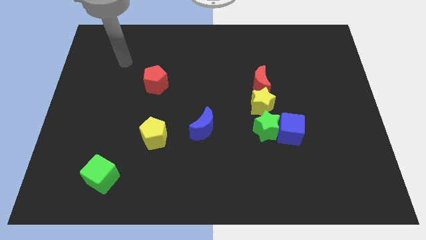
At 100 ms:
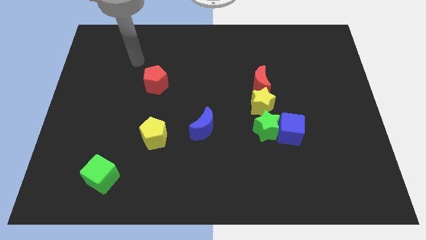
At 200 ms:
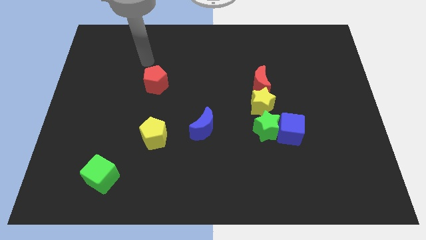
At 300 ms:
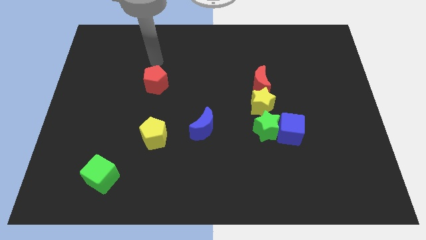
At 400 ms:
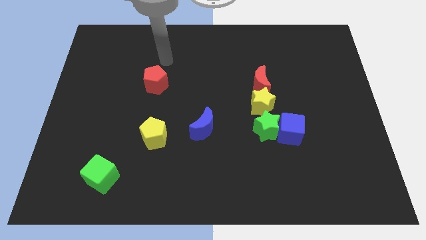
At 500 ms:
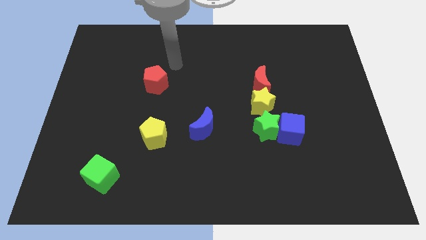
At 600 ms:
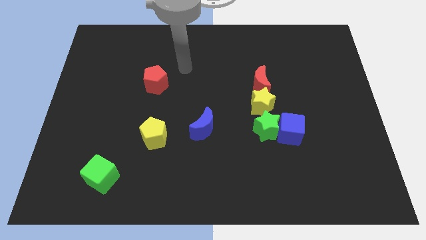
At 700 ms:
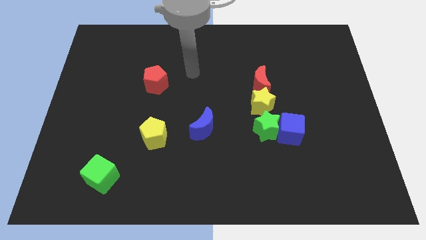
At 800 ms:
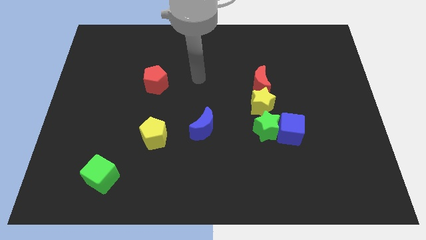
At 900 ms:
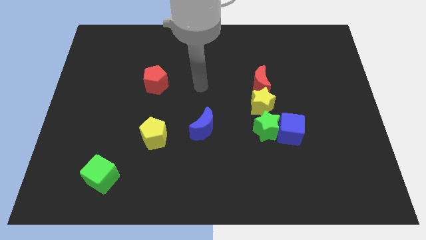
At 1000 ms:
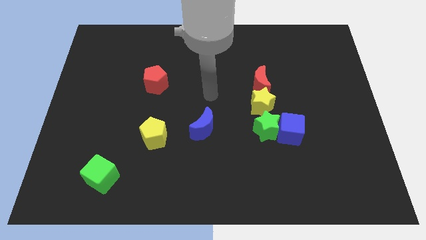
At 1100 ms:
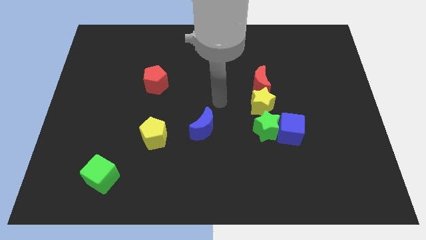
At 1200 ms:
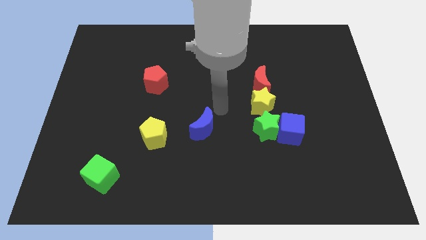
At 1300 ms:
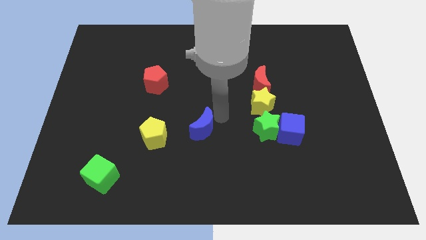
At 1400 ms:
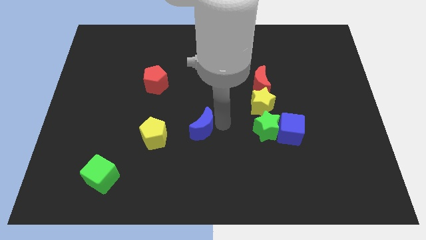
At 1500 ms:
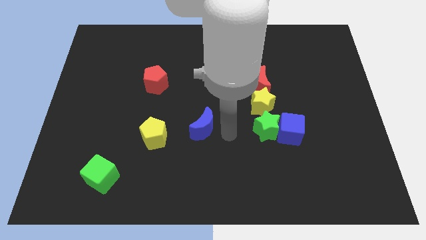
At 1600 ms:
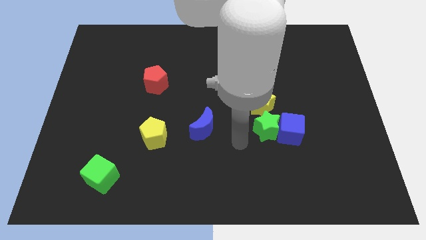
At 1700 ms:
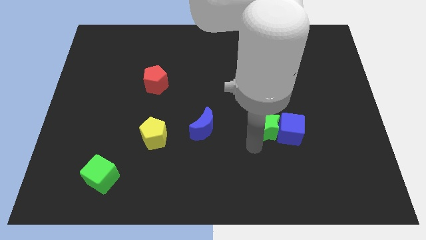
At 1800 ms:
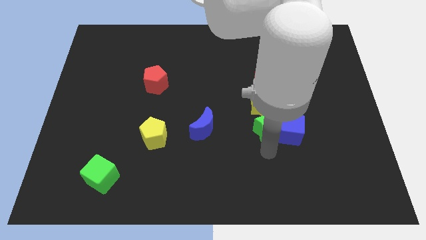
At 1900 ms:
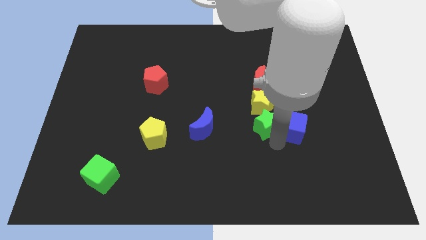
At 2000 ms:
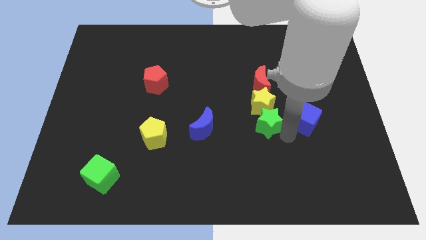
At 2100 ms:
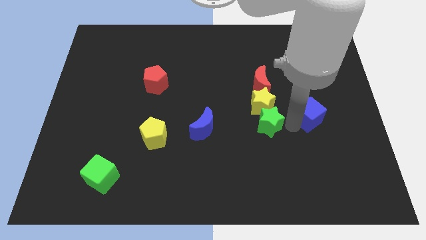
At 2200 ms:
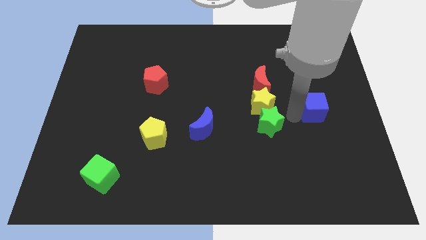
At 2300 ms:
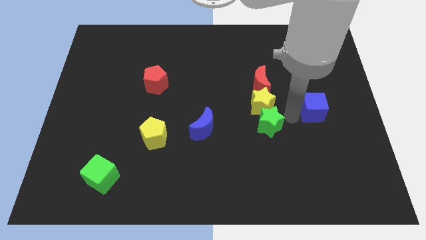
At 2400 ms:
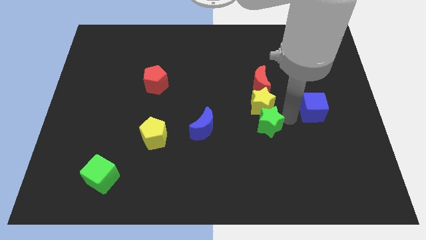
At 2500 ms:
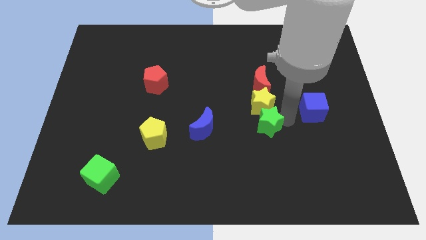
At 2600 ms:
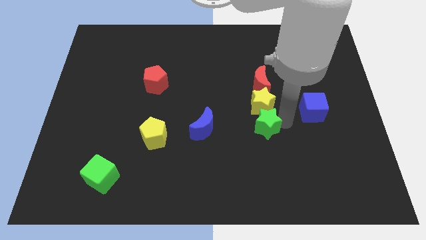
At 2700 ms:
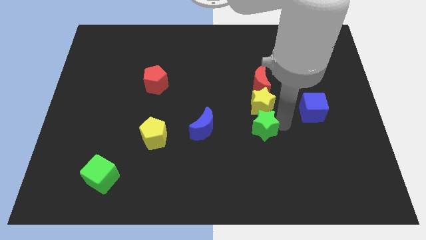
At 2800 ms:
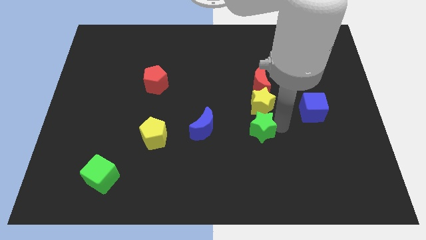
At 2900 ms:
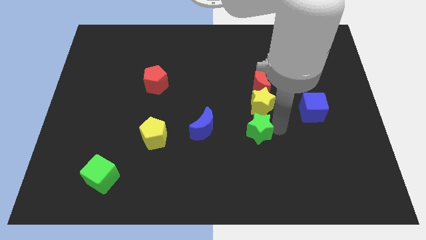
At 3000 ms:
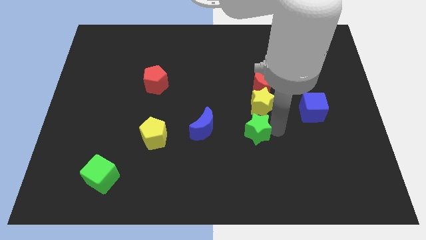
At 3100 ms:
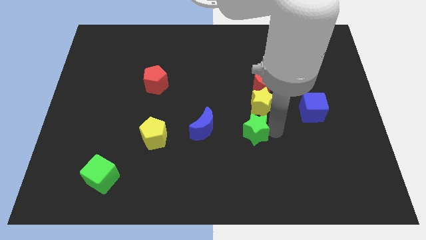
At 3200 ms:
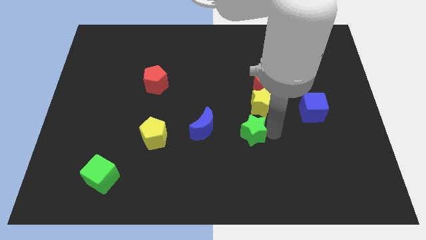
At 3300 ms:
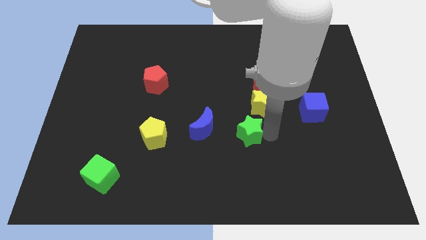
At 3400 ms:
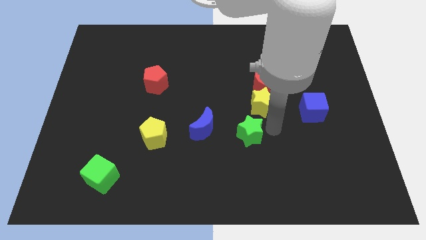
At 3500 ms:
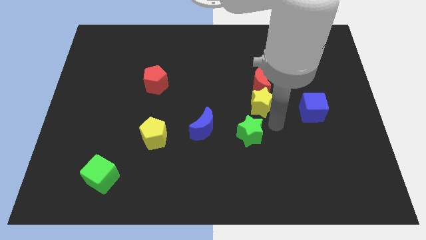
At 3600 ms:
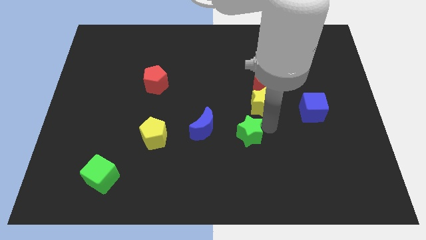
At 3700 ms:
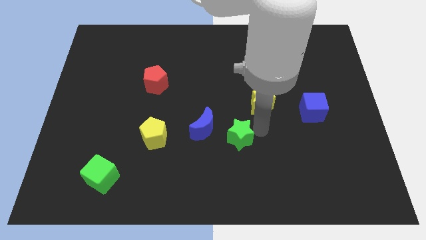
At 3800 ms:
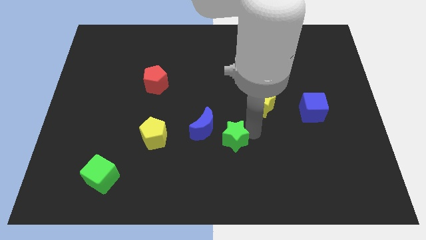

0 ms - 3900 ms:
slide the green star left slightly

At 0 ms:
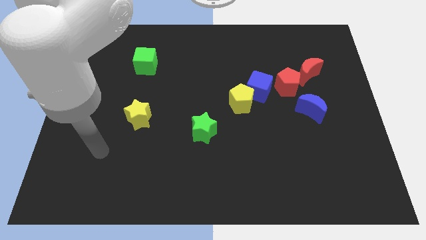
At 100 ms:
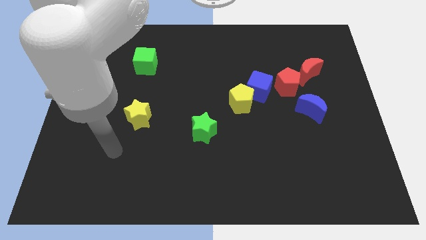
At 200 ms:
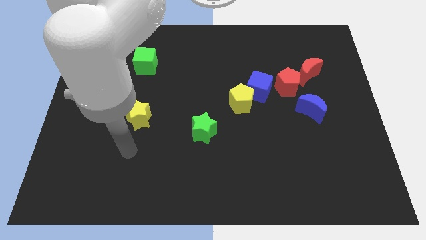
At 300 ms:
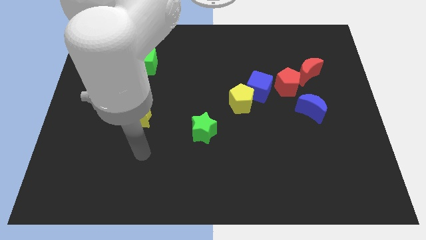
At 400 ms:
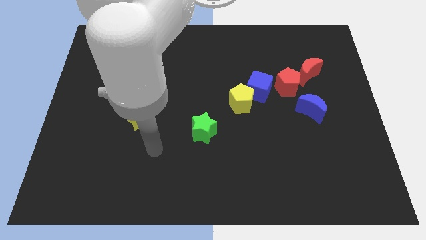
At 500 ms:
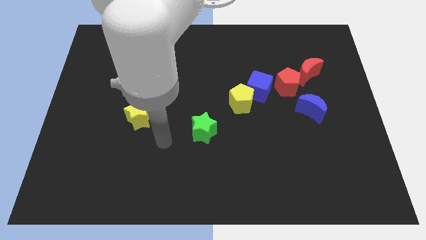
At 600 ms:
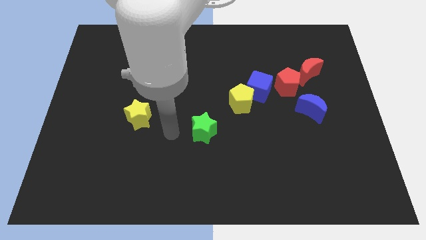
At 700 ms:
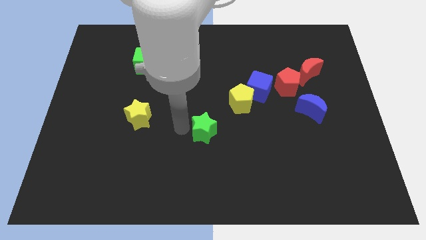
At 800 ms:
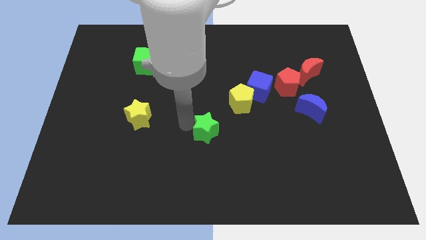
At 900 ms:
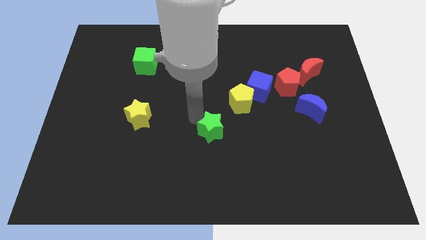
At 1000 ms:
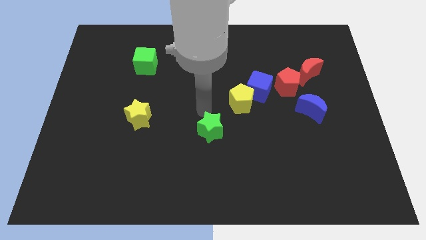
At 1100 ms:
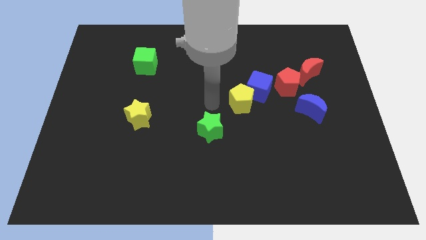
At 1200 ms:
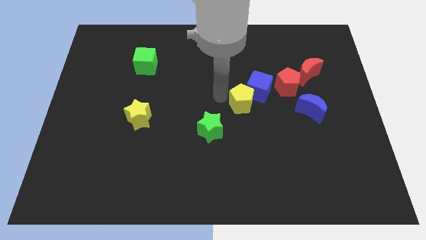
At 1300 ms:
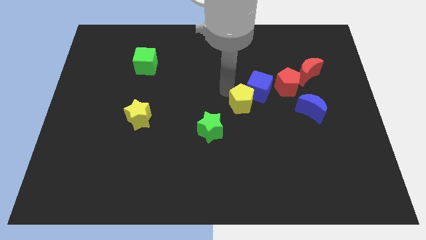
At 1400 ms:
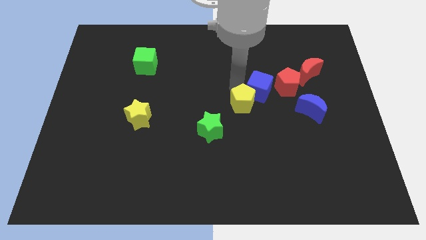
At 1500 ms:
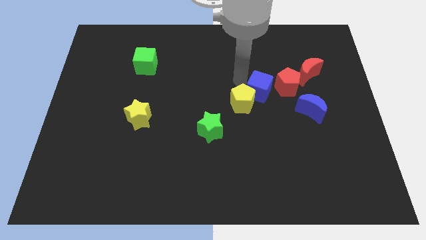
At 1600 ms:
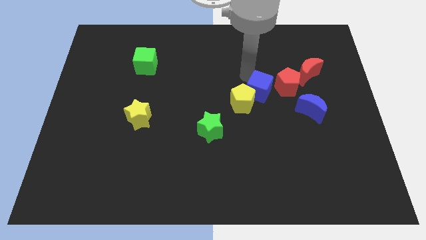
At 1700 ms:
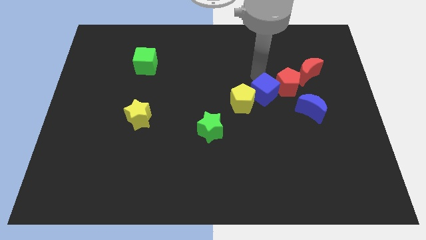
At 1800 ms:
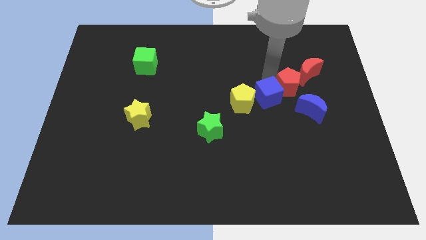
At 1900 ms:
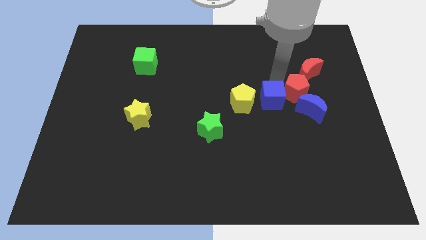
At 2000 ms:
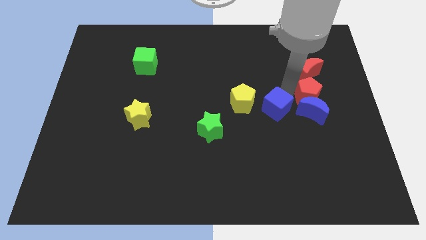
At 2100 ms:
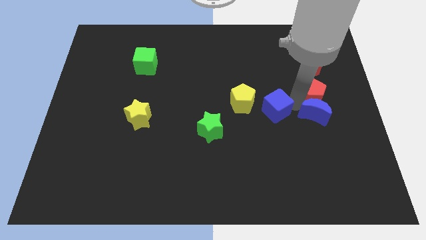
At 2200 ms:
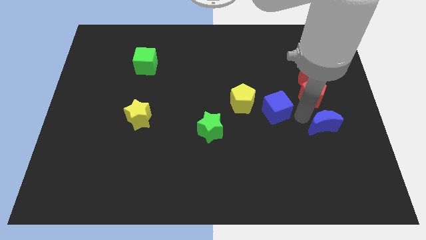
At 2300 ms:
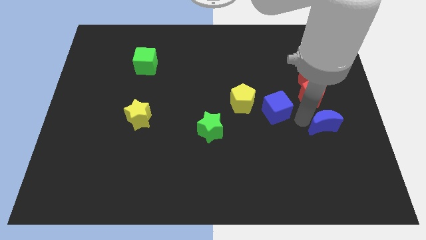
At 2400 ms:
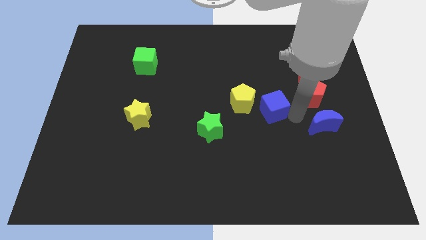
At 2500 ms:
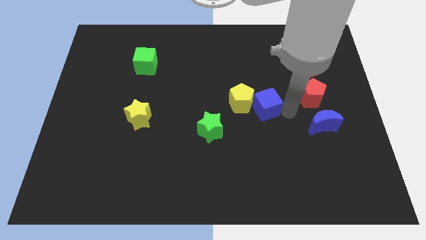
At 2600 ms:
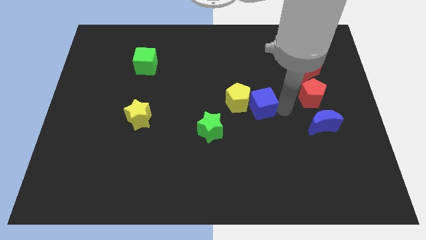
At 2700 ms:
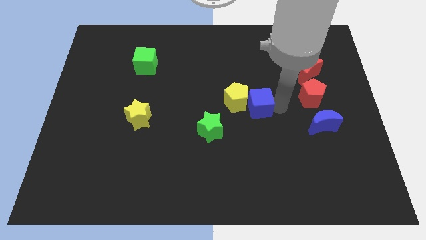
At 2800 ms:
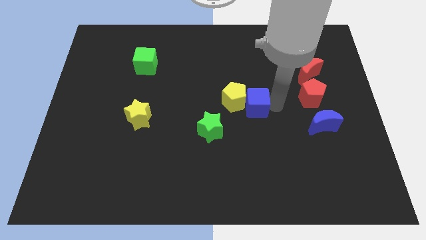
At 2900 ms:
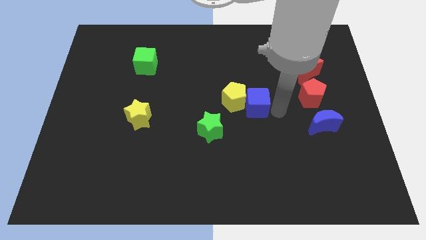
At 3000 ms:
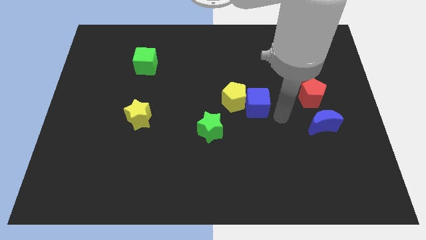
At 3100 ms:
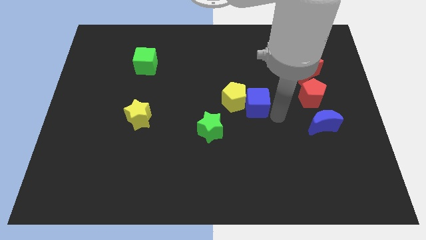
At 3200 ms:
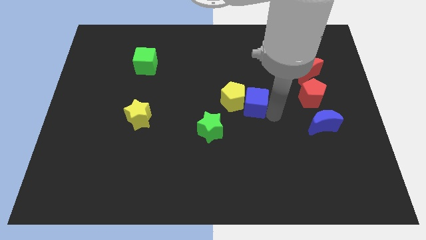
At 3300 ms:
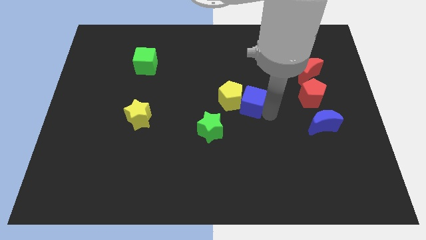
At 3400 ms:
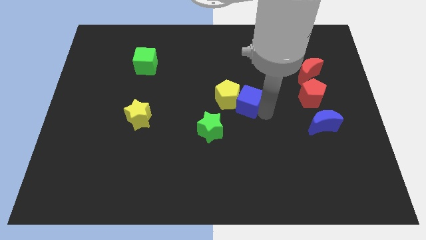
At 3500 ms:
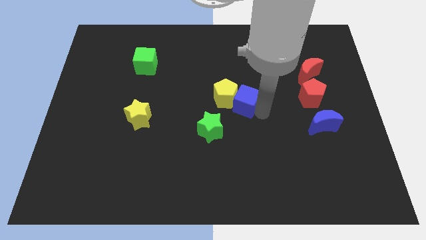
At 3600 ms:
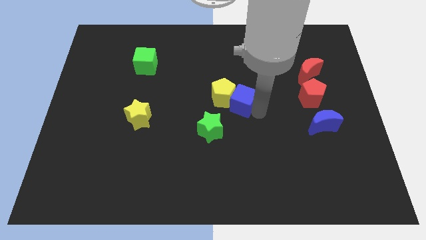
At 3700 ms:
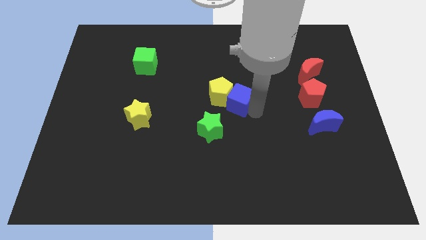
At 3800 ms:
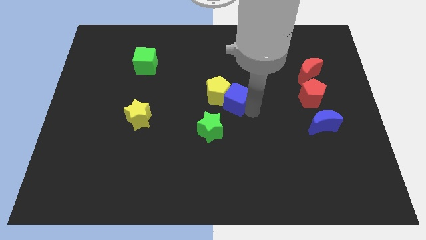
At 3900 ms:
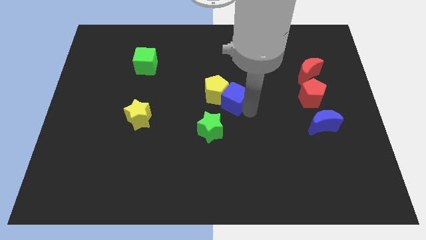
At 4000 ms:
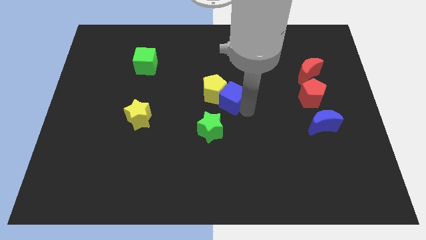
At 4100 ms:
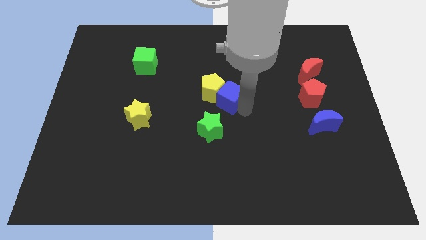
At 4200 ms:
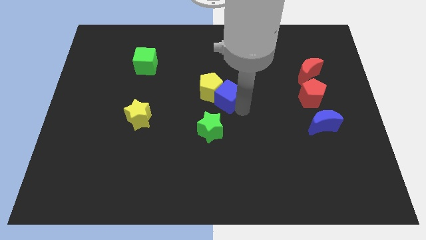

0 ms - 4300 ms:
push the blue cube to the left a little bit
